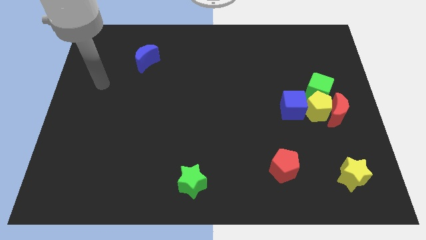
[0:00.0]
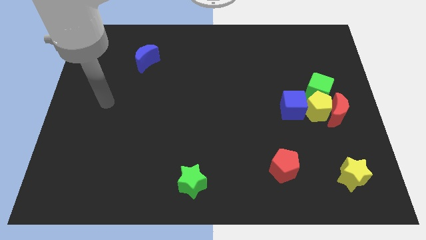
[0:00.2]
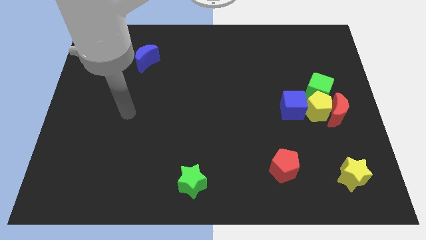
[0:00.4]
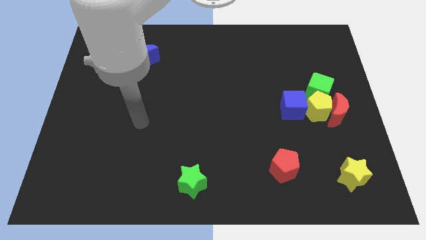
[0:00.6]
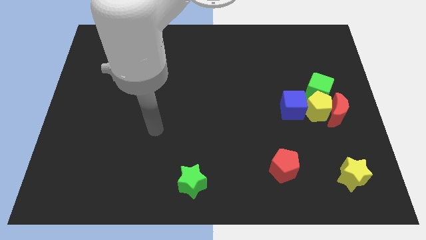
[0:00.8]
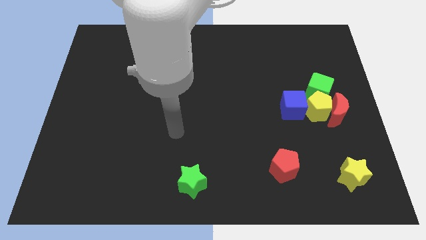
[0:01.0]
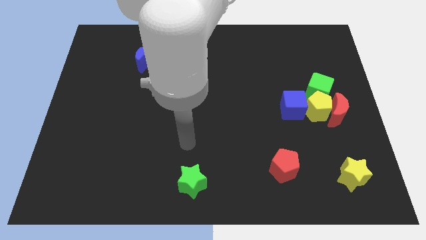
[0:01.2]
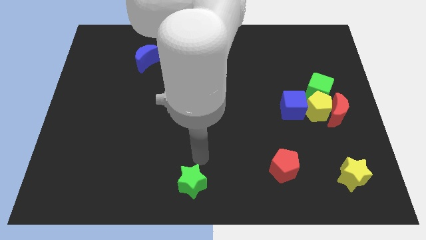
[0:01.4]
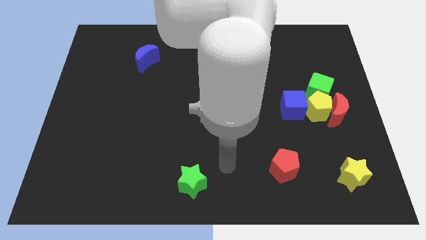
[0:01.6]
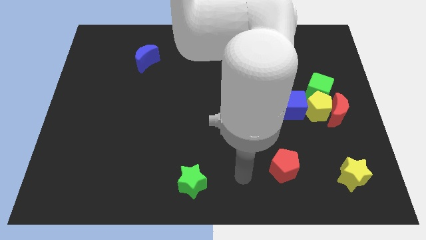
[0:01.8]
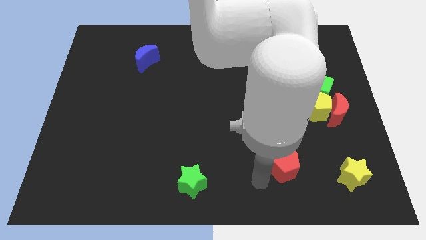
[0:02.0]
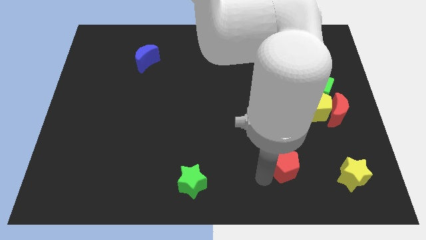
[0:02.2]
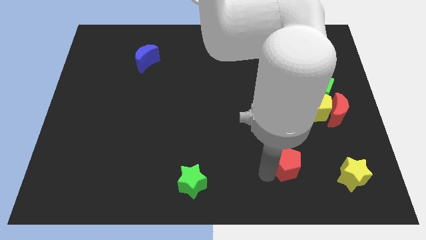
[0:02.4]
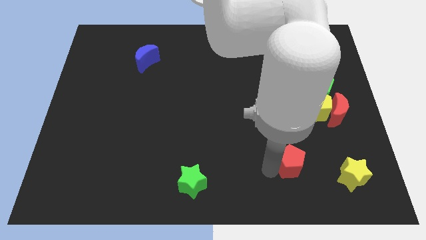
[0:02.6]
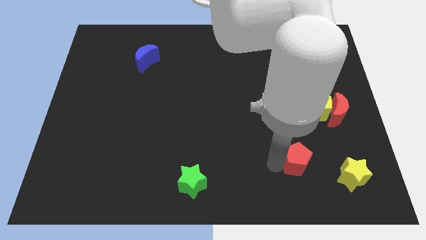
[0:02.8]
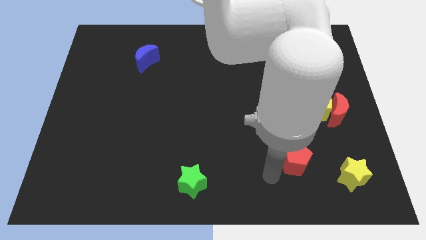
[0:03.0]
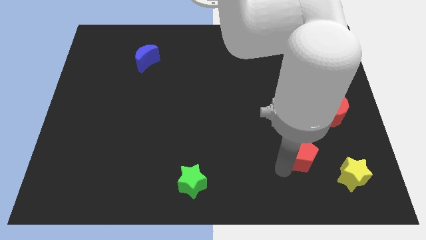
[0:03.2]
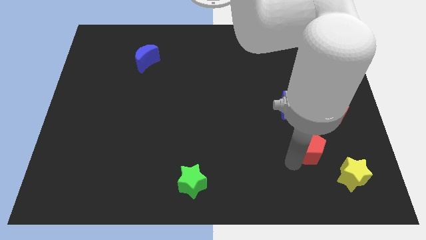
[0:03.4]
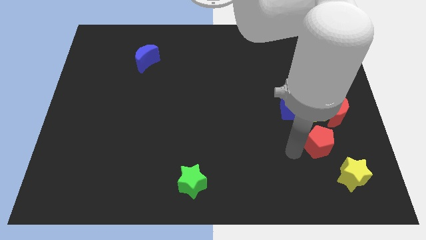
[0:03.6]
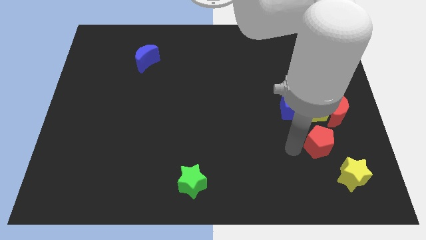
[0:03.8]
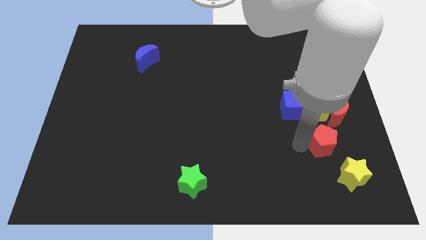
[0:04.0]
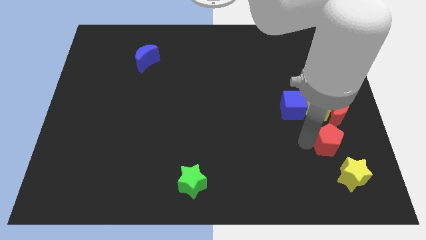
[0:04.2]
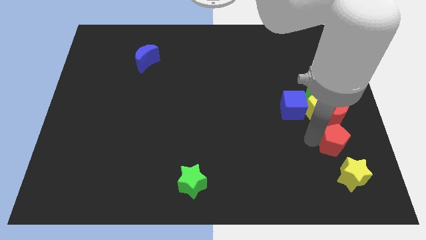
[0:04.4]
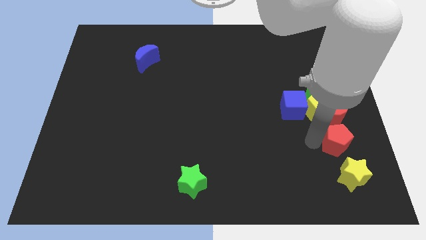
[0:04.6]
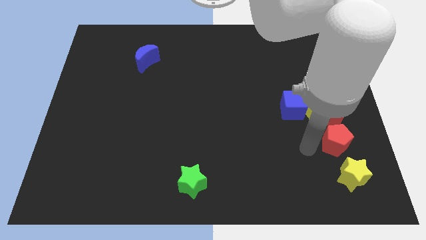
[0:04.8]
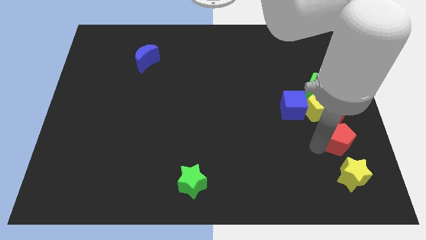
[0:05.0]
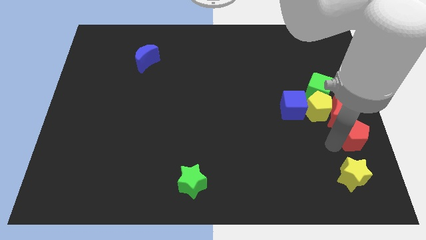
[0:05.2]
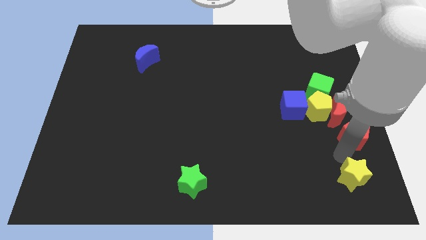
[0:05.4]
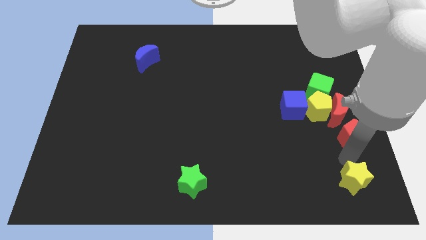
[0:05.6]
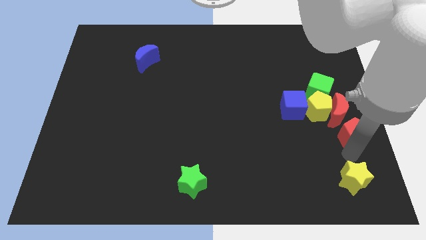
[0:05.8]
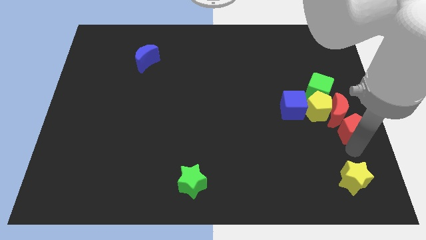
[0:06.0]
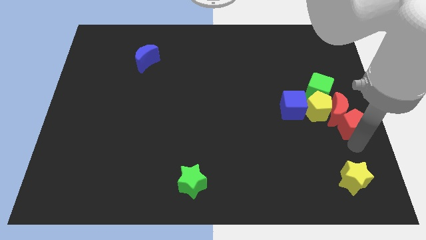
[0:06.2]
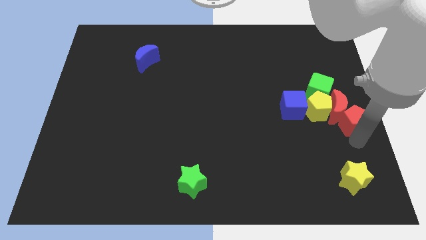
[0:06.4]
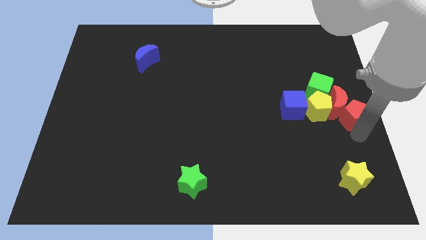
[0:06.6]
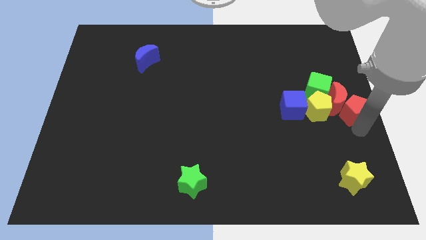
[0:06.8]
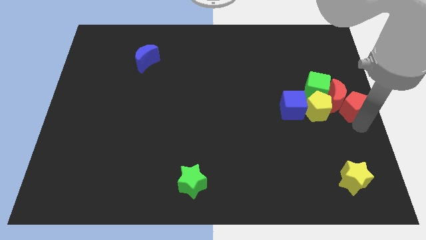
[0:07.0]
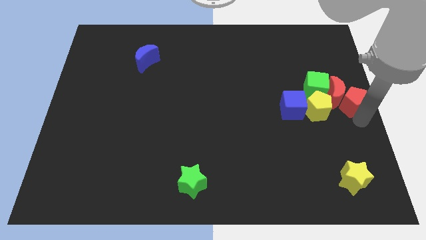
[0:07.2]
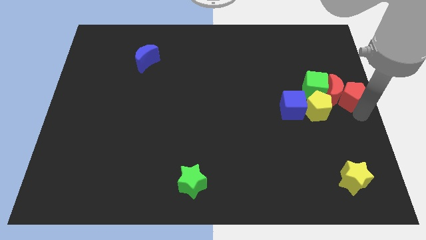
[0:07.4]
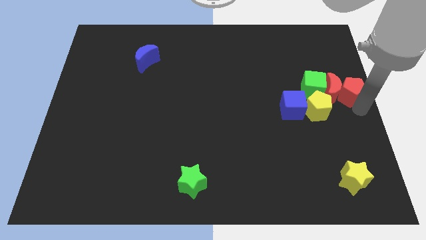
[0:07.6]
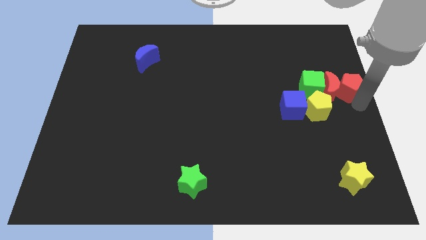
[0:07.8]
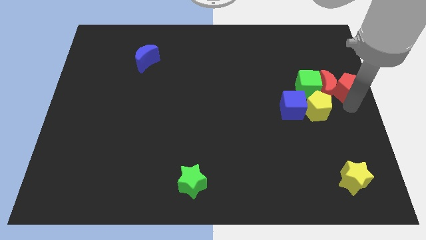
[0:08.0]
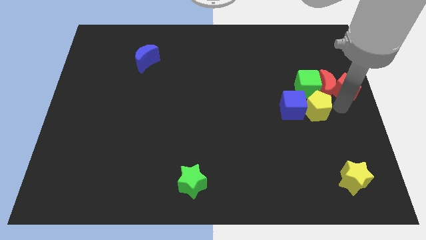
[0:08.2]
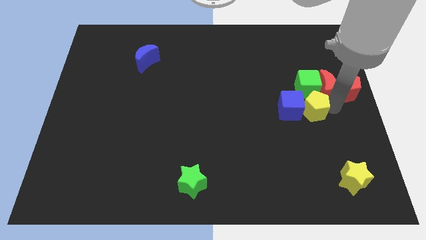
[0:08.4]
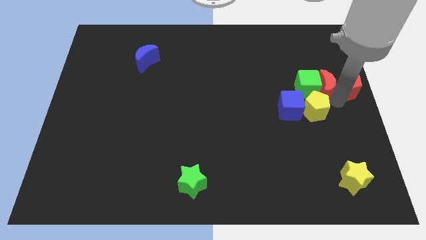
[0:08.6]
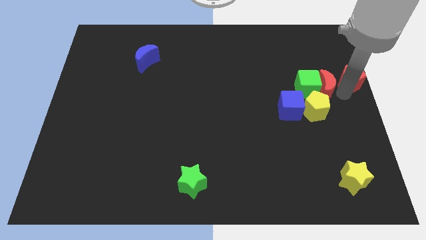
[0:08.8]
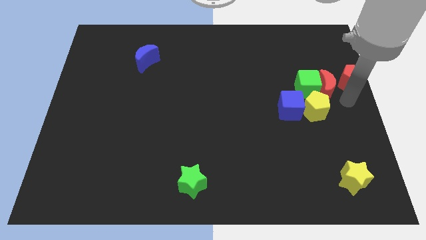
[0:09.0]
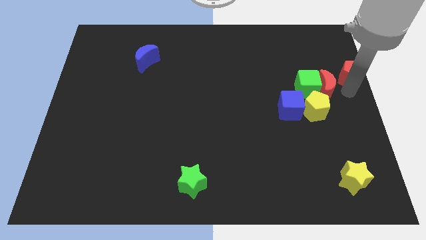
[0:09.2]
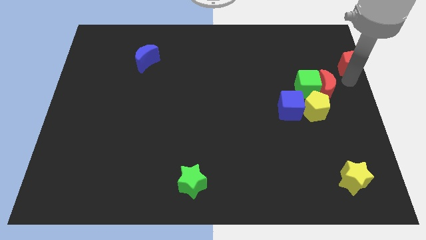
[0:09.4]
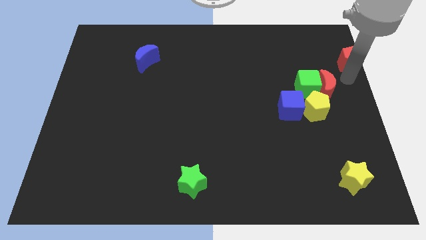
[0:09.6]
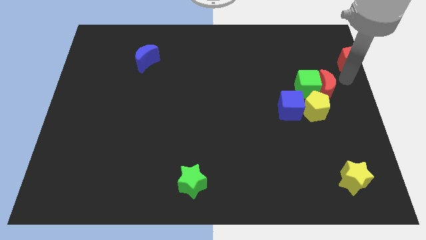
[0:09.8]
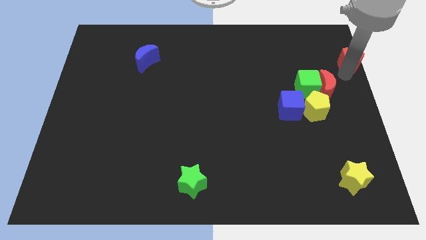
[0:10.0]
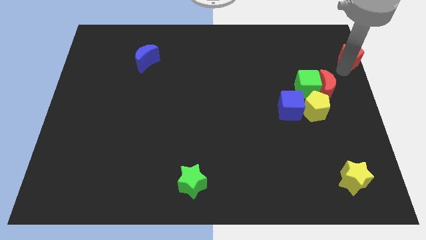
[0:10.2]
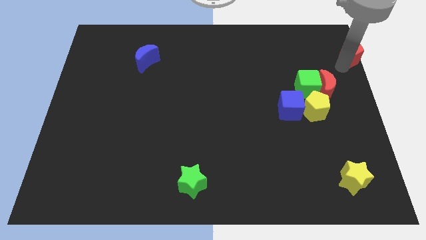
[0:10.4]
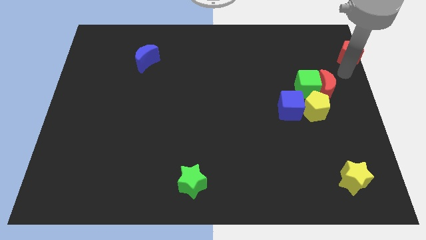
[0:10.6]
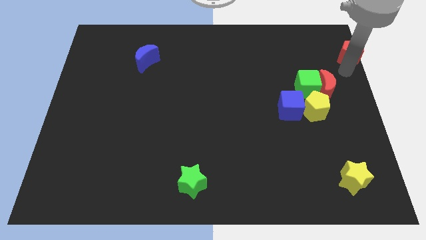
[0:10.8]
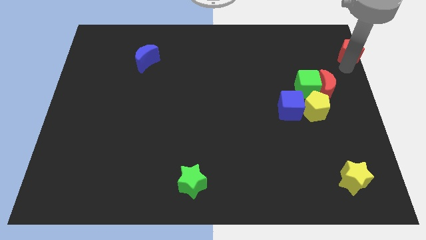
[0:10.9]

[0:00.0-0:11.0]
move the red pentagon to the top right

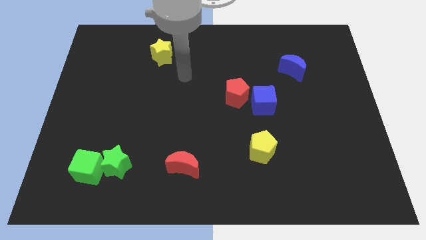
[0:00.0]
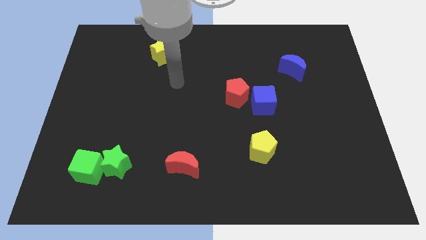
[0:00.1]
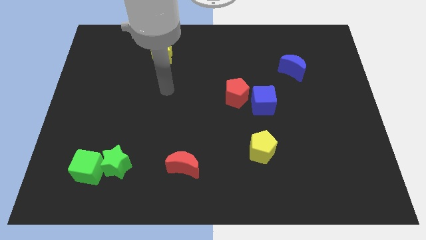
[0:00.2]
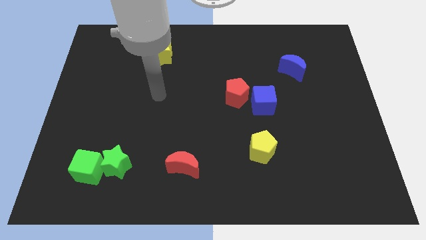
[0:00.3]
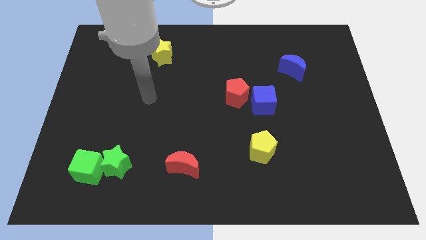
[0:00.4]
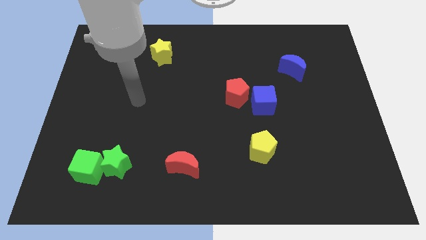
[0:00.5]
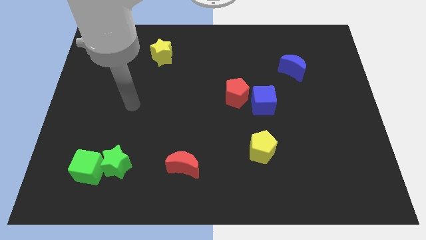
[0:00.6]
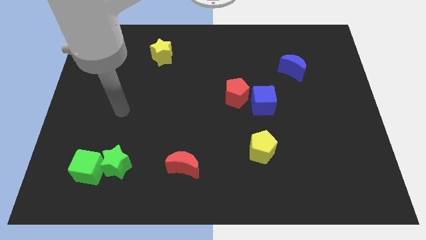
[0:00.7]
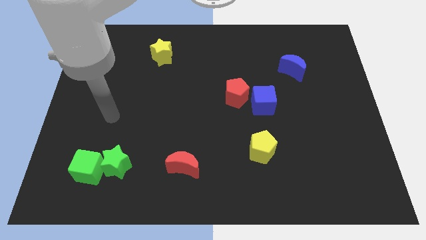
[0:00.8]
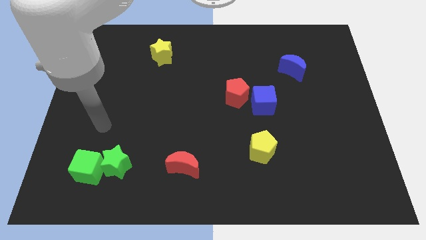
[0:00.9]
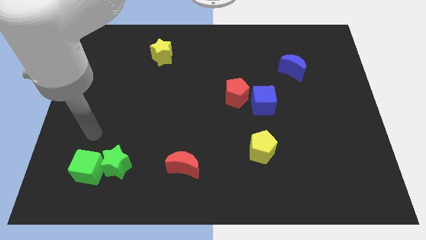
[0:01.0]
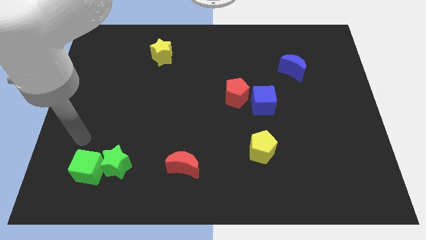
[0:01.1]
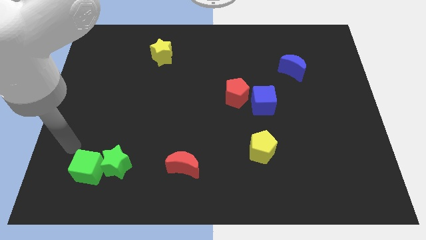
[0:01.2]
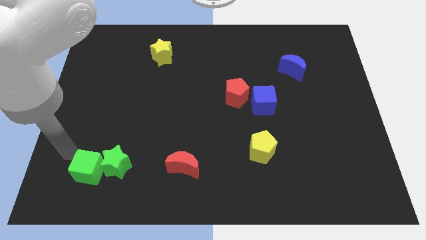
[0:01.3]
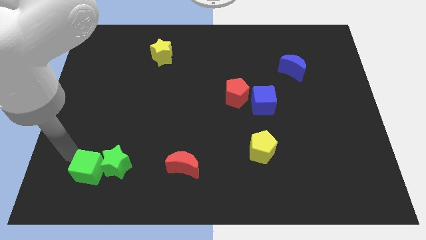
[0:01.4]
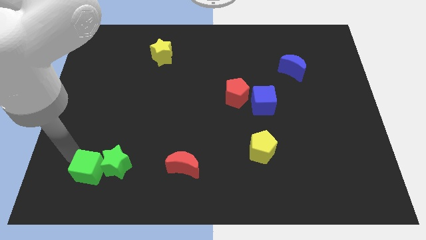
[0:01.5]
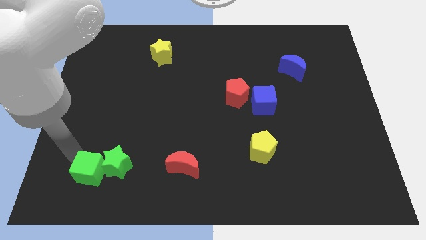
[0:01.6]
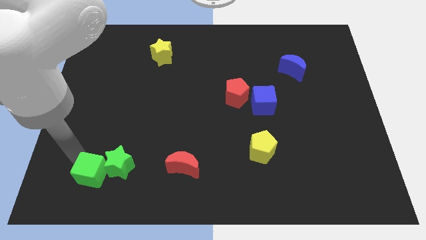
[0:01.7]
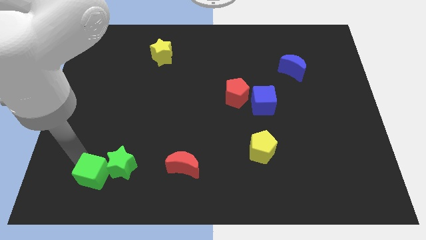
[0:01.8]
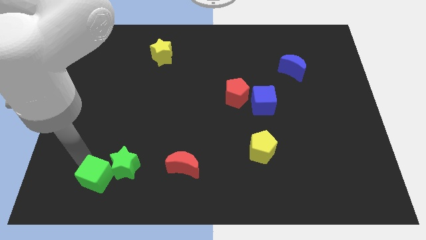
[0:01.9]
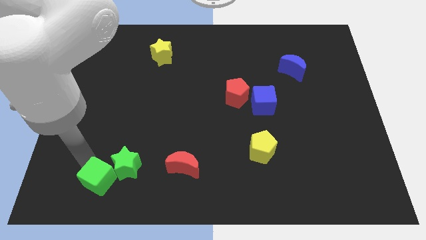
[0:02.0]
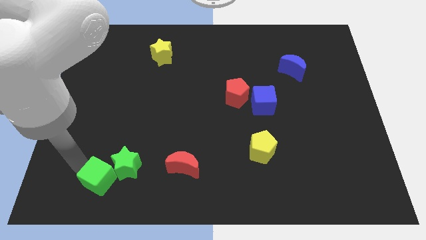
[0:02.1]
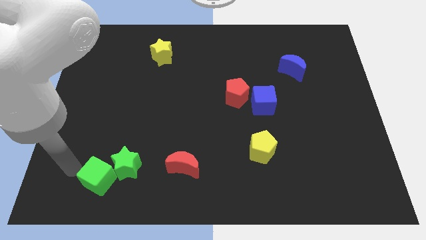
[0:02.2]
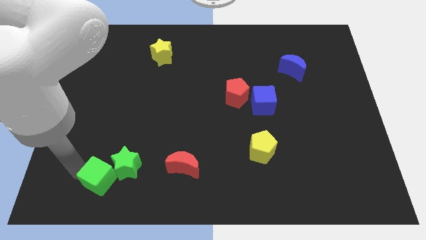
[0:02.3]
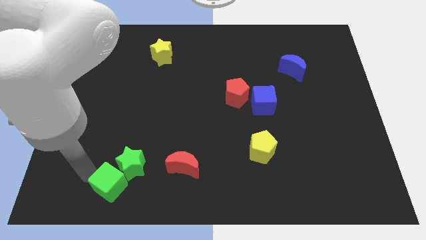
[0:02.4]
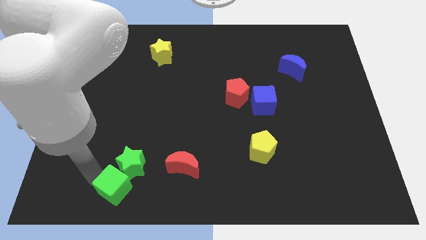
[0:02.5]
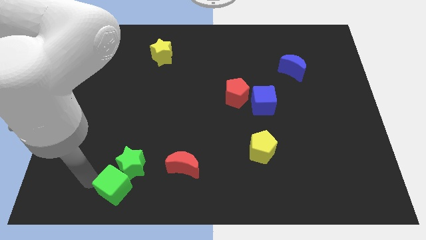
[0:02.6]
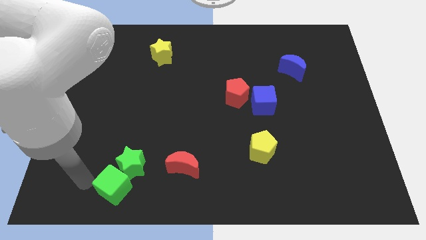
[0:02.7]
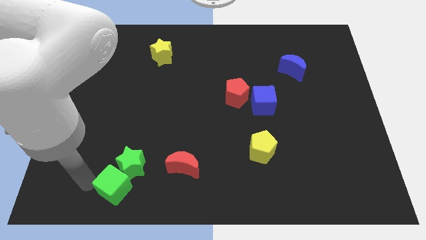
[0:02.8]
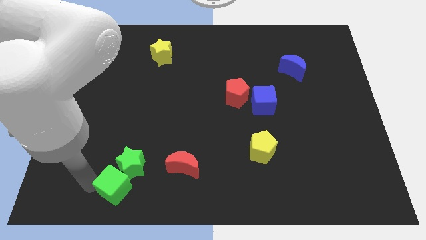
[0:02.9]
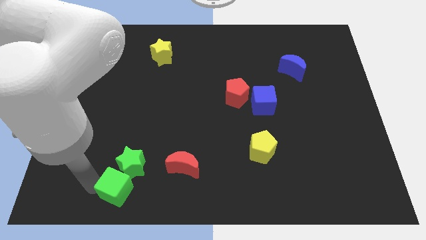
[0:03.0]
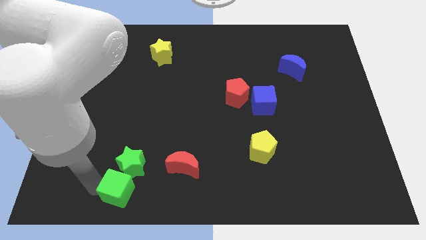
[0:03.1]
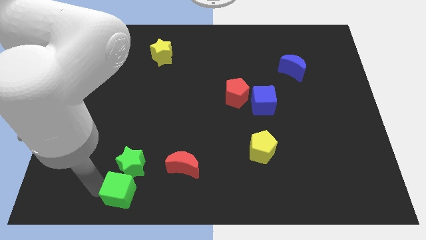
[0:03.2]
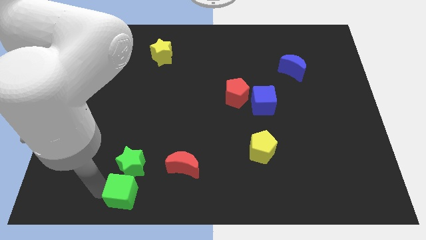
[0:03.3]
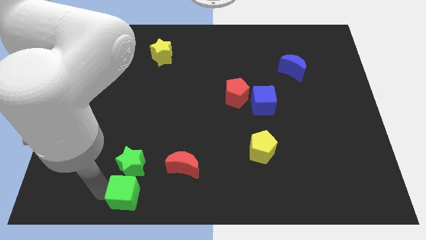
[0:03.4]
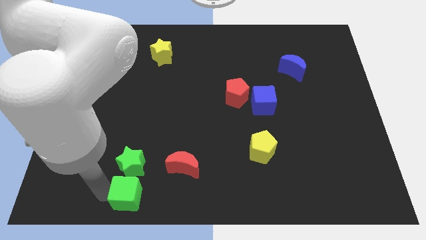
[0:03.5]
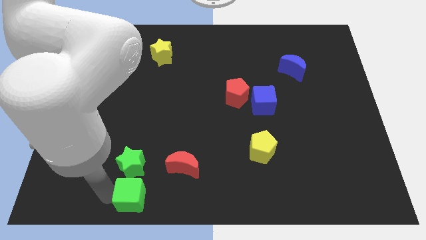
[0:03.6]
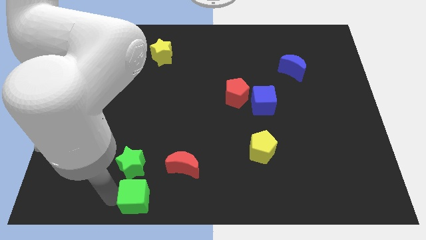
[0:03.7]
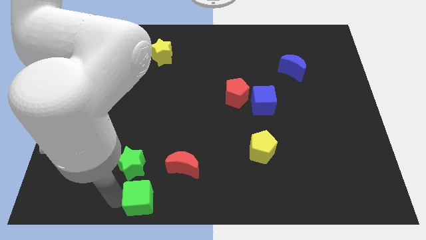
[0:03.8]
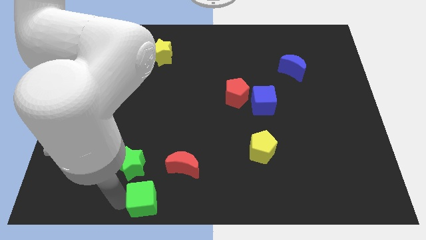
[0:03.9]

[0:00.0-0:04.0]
push the green cube to the bottom side
